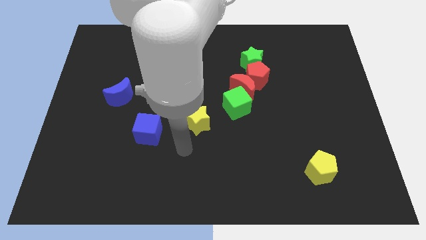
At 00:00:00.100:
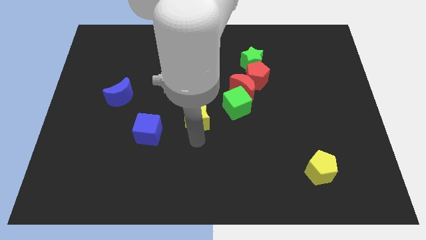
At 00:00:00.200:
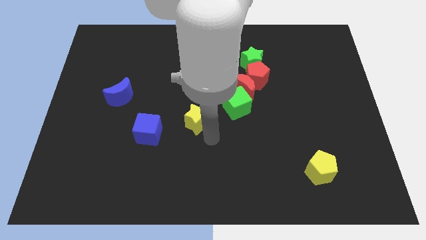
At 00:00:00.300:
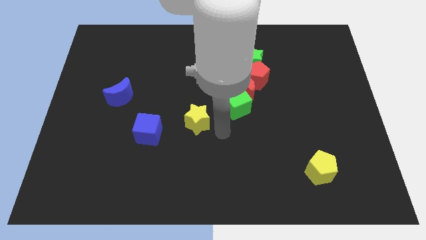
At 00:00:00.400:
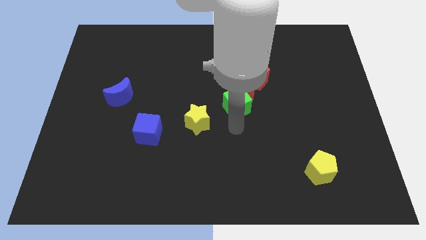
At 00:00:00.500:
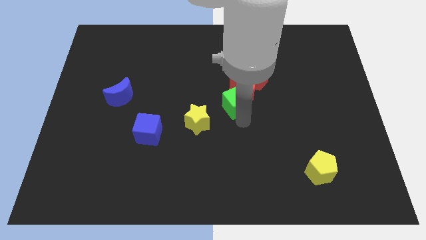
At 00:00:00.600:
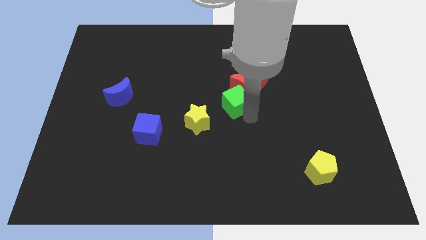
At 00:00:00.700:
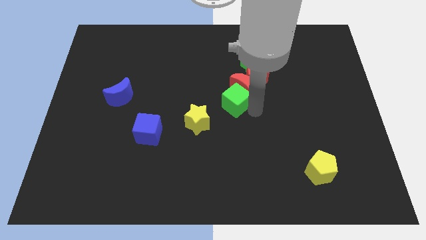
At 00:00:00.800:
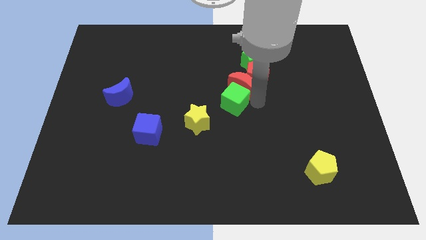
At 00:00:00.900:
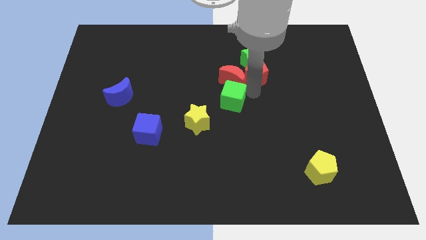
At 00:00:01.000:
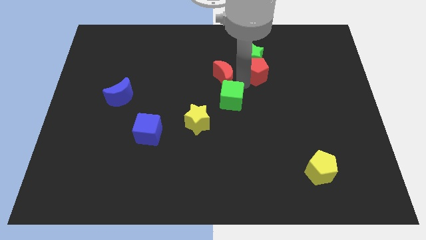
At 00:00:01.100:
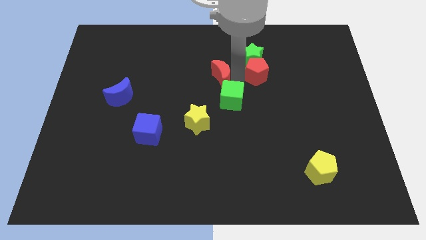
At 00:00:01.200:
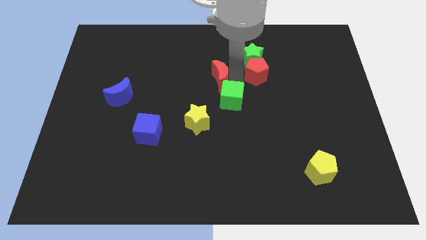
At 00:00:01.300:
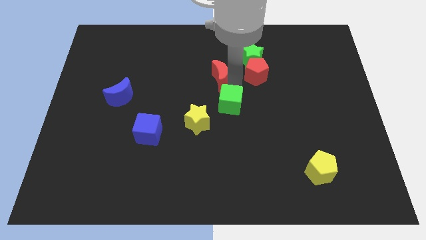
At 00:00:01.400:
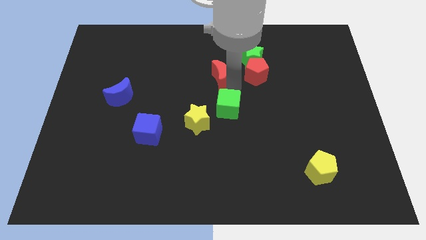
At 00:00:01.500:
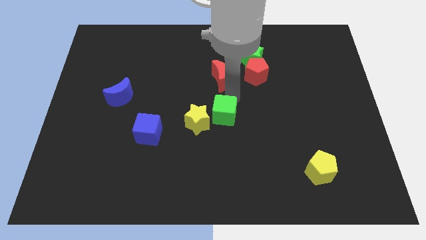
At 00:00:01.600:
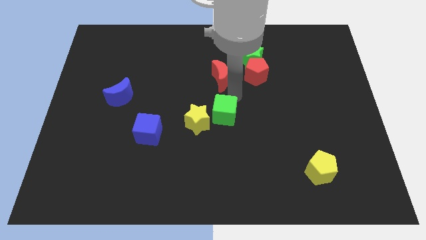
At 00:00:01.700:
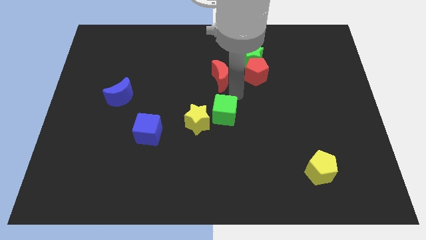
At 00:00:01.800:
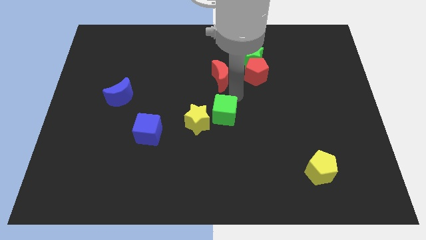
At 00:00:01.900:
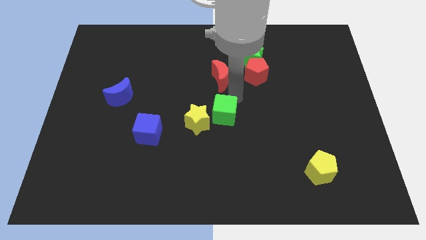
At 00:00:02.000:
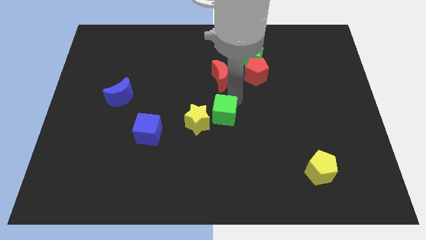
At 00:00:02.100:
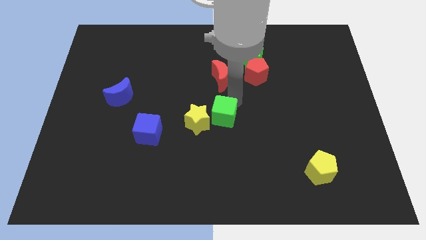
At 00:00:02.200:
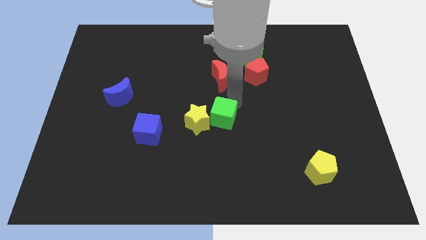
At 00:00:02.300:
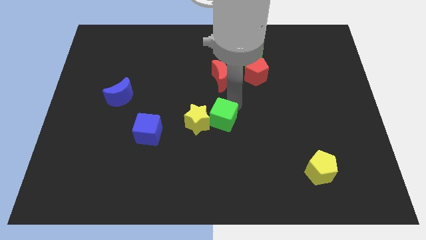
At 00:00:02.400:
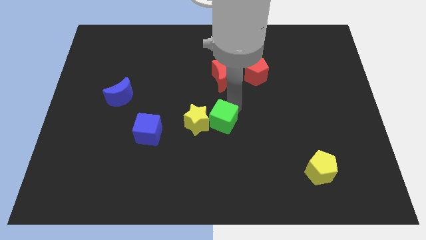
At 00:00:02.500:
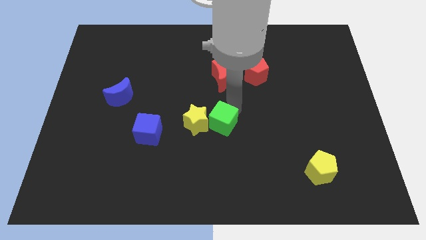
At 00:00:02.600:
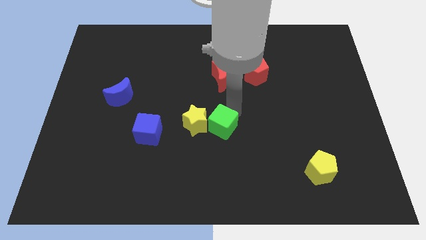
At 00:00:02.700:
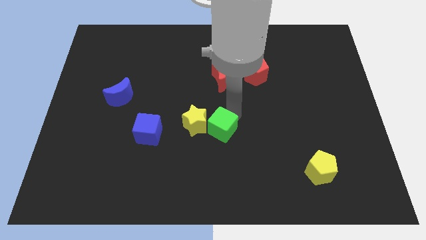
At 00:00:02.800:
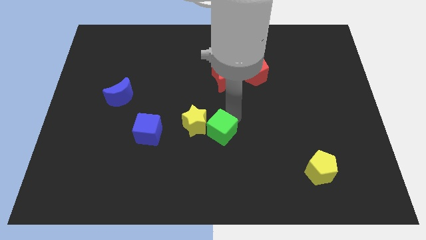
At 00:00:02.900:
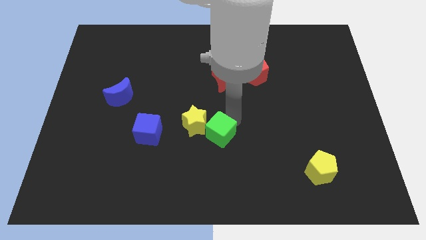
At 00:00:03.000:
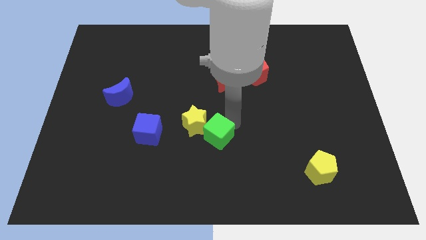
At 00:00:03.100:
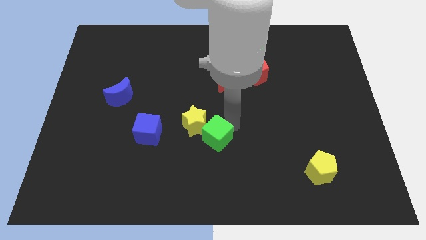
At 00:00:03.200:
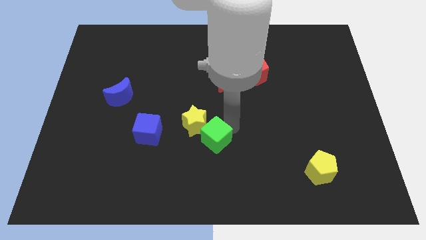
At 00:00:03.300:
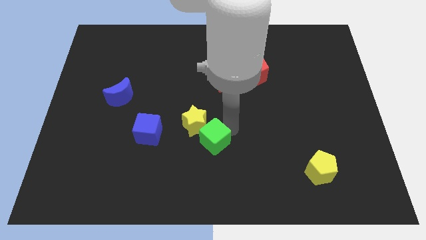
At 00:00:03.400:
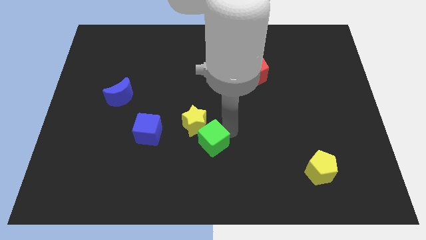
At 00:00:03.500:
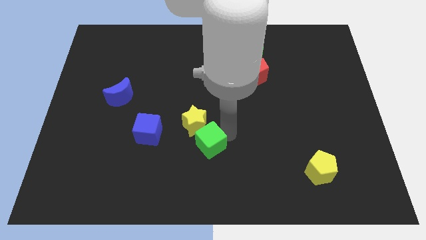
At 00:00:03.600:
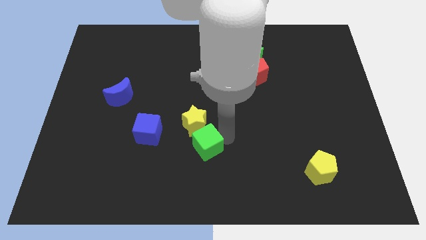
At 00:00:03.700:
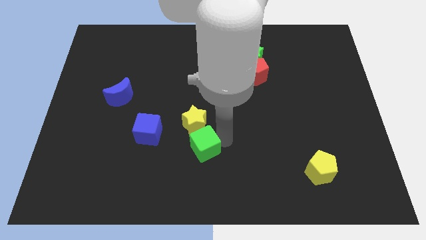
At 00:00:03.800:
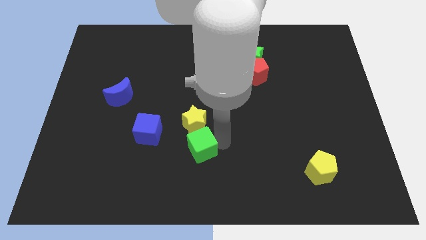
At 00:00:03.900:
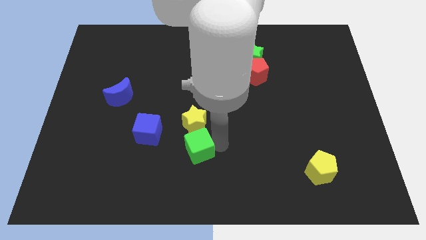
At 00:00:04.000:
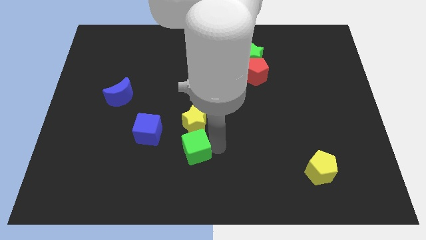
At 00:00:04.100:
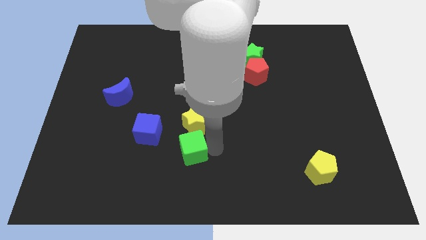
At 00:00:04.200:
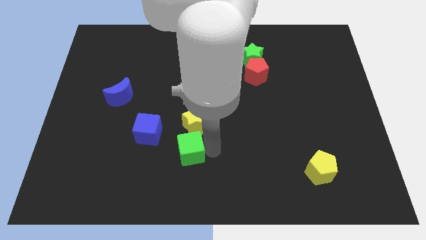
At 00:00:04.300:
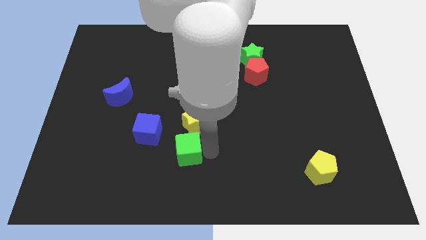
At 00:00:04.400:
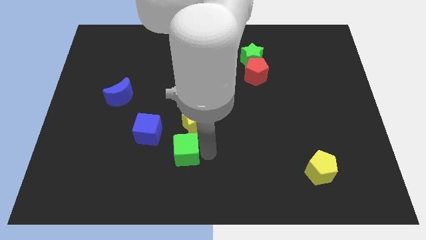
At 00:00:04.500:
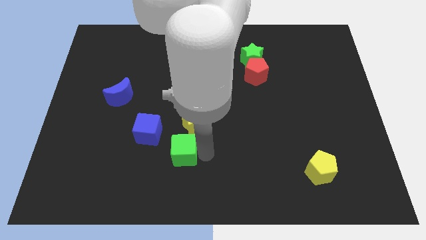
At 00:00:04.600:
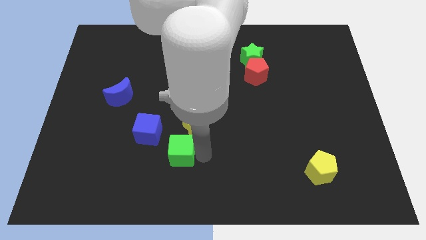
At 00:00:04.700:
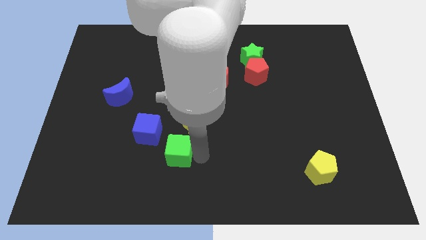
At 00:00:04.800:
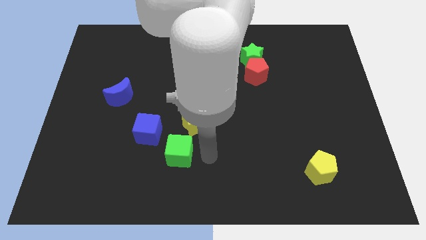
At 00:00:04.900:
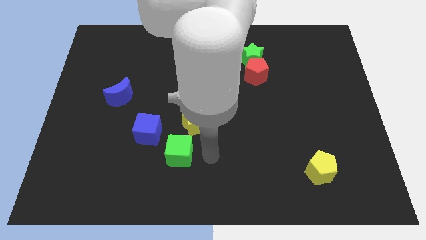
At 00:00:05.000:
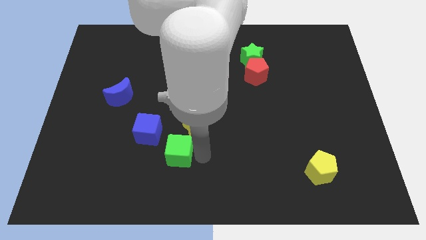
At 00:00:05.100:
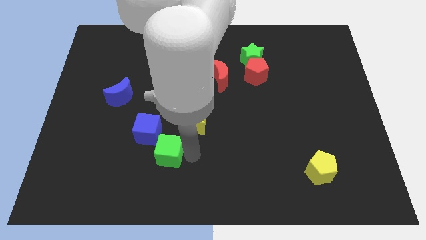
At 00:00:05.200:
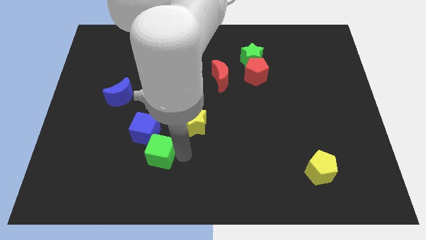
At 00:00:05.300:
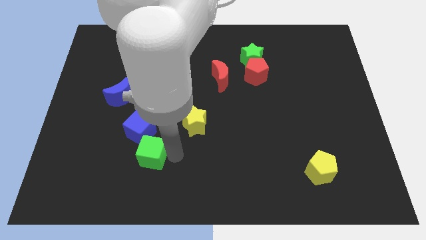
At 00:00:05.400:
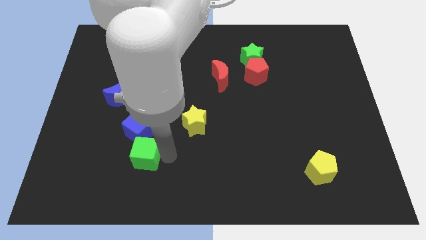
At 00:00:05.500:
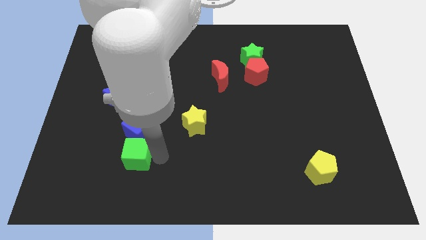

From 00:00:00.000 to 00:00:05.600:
put the green cube to the bottom left side of the blue cube

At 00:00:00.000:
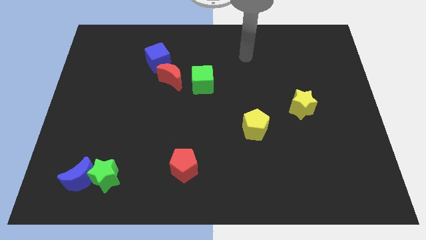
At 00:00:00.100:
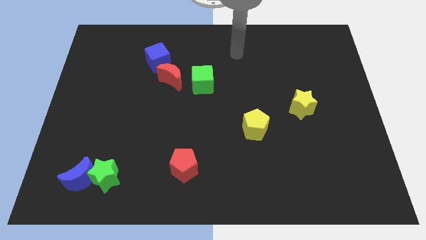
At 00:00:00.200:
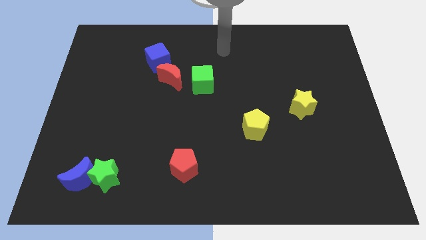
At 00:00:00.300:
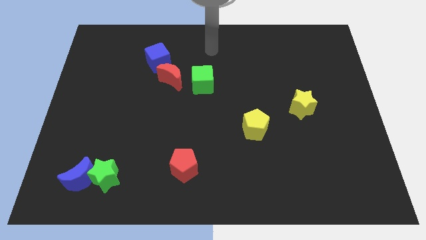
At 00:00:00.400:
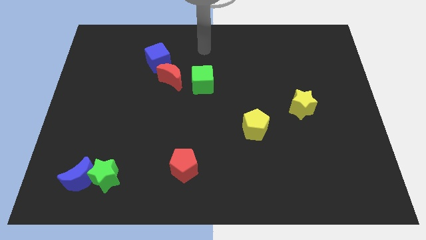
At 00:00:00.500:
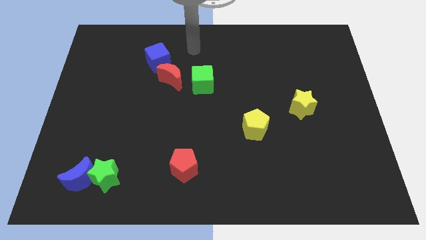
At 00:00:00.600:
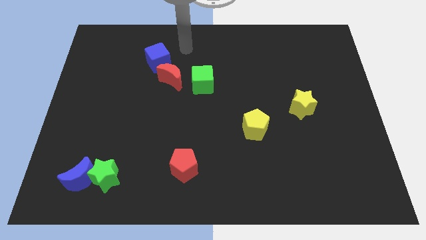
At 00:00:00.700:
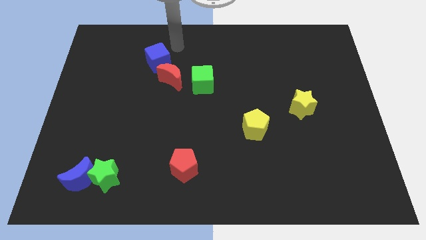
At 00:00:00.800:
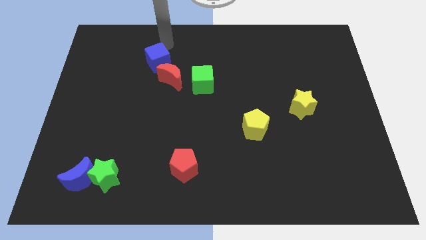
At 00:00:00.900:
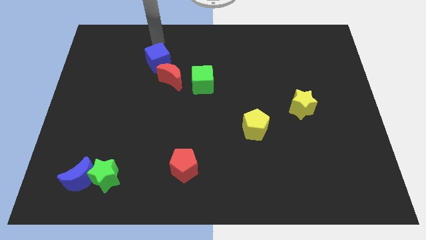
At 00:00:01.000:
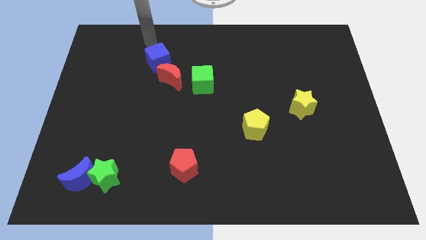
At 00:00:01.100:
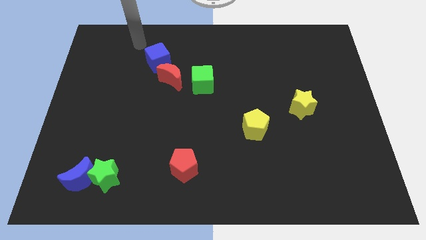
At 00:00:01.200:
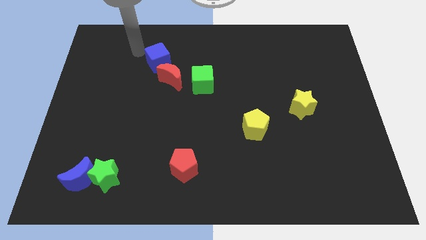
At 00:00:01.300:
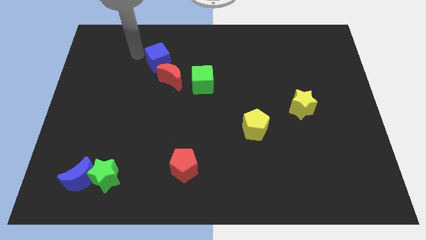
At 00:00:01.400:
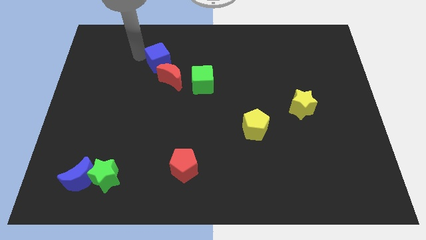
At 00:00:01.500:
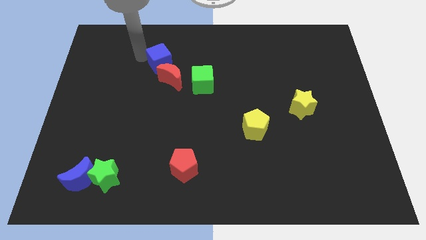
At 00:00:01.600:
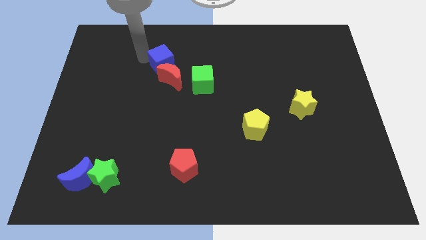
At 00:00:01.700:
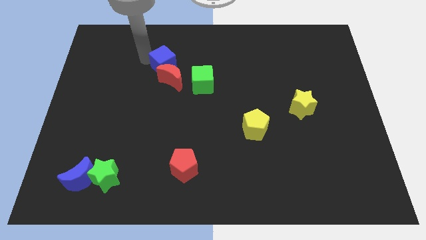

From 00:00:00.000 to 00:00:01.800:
push the blue cube diagonally up and to the left of the green cube
